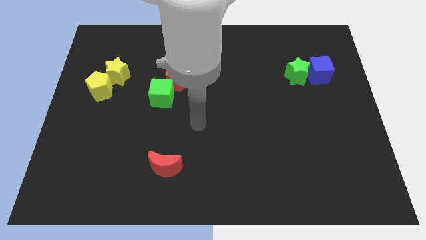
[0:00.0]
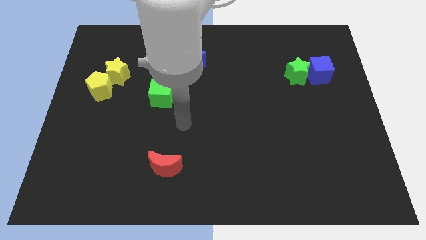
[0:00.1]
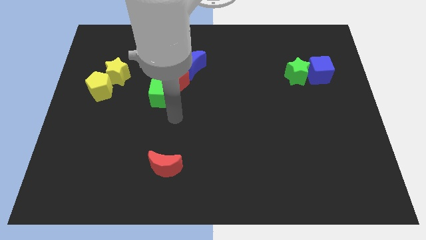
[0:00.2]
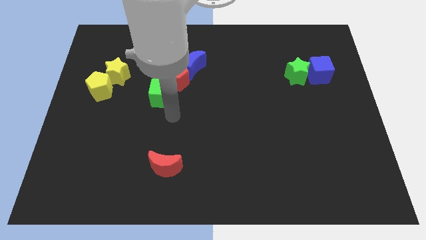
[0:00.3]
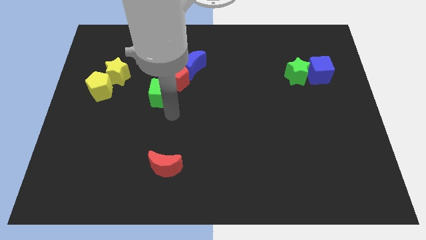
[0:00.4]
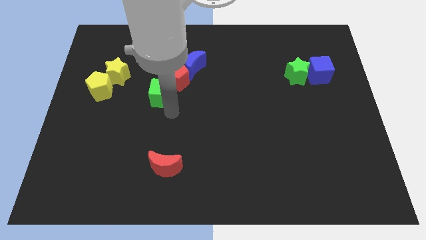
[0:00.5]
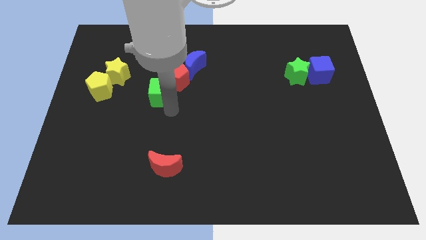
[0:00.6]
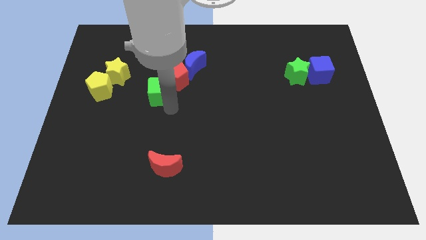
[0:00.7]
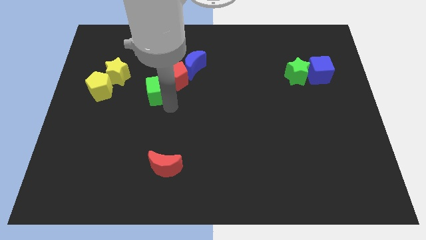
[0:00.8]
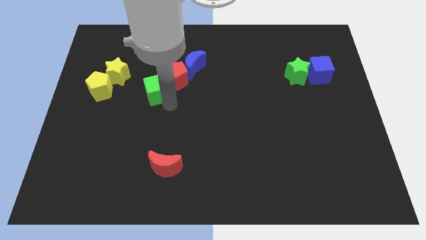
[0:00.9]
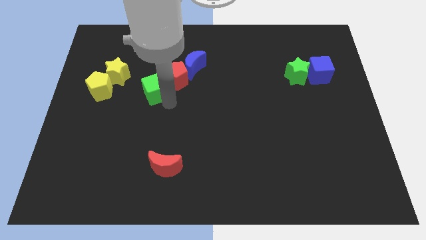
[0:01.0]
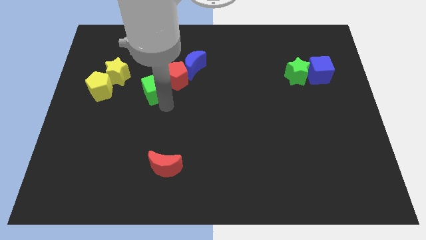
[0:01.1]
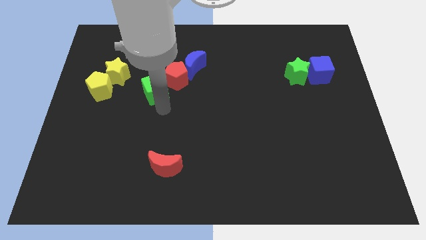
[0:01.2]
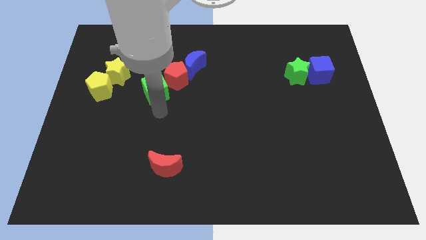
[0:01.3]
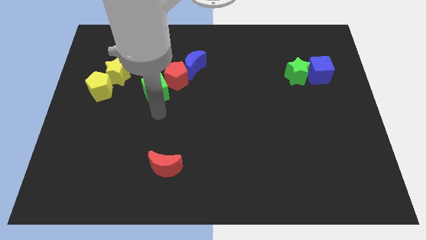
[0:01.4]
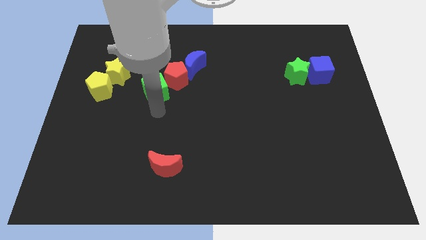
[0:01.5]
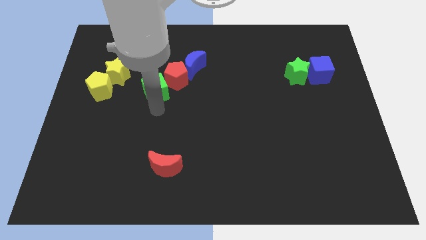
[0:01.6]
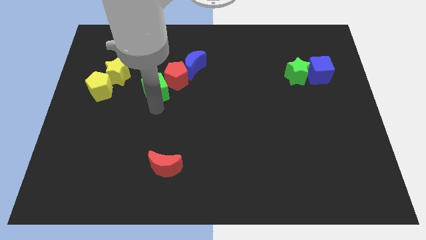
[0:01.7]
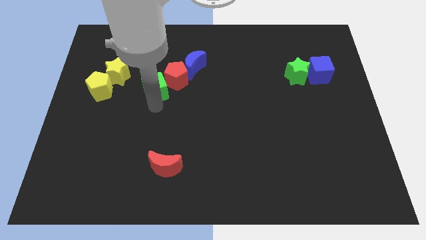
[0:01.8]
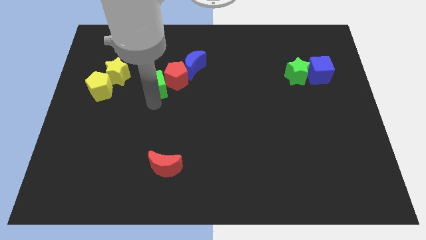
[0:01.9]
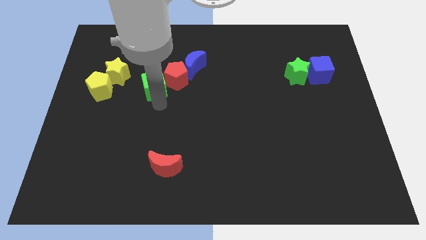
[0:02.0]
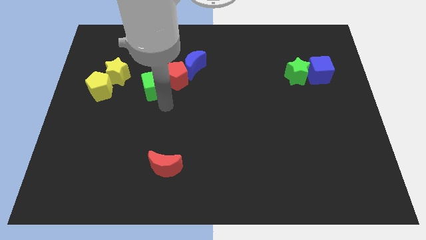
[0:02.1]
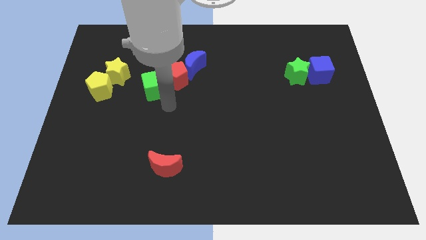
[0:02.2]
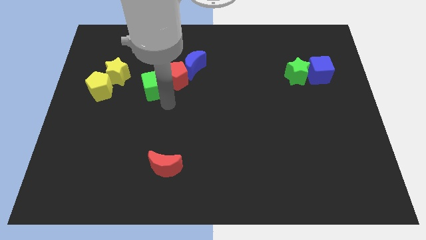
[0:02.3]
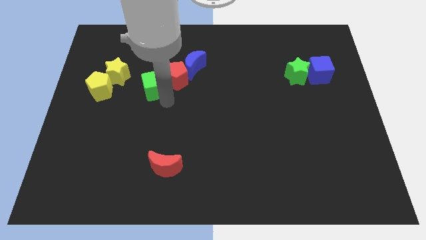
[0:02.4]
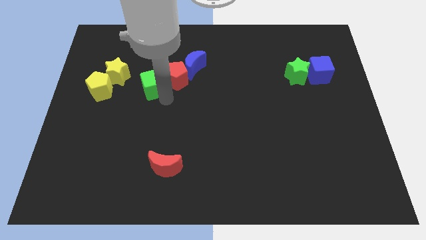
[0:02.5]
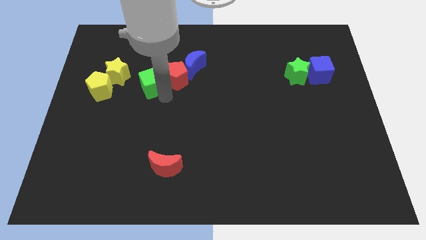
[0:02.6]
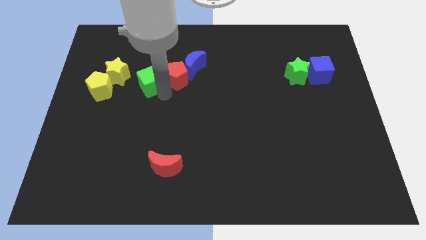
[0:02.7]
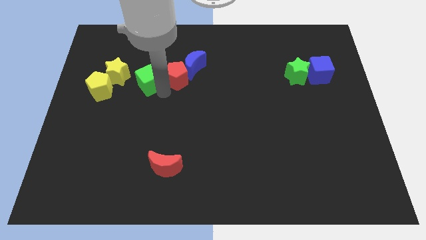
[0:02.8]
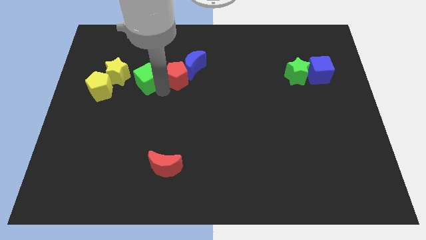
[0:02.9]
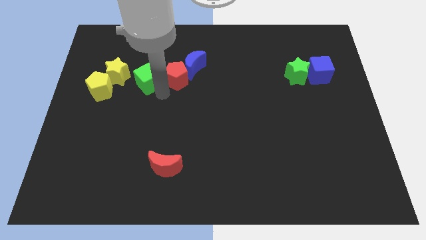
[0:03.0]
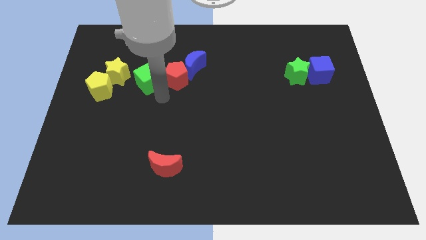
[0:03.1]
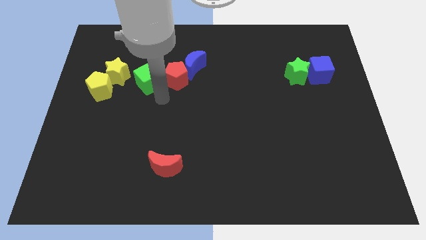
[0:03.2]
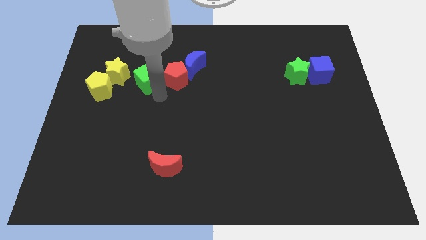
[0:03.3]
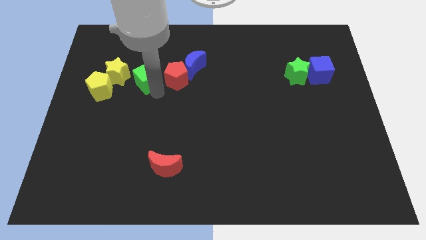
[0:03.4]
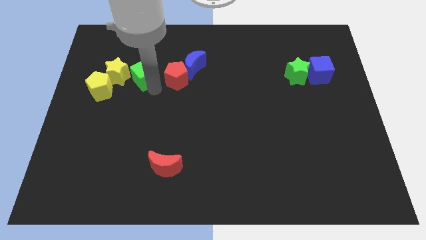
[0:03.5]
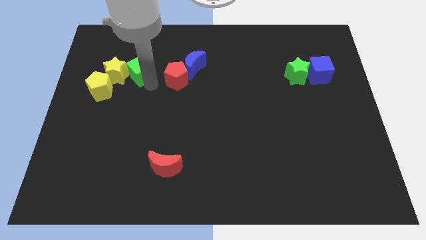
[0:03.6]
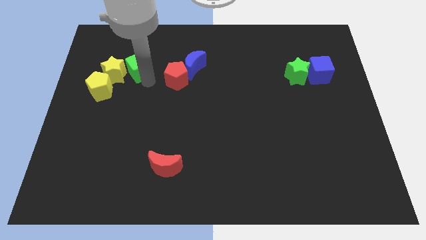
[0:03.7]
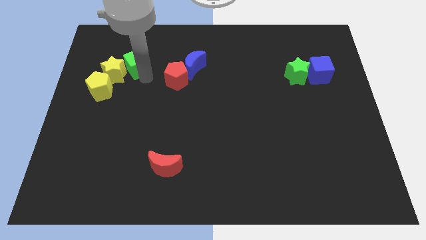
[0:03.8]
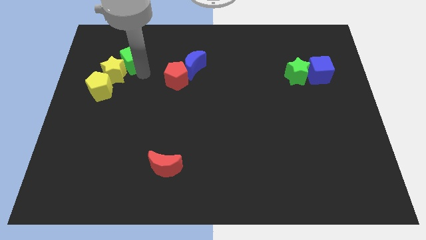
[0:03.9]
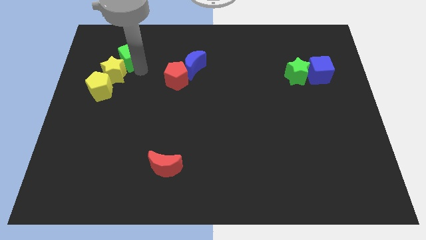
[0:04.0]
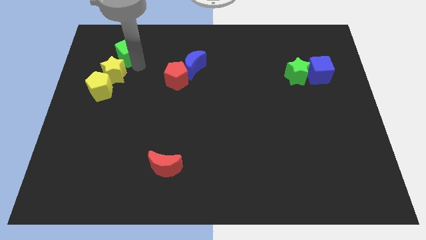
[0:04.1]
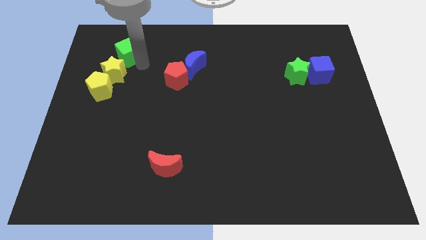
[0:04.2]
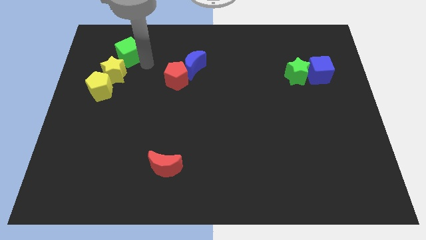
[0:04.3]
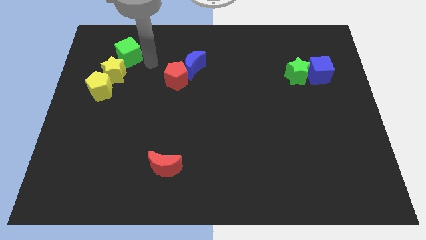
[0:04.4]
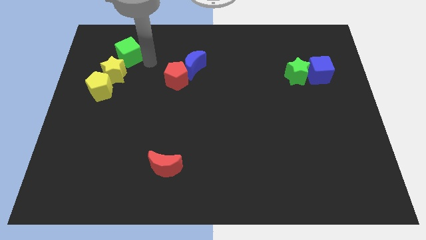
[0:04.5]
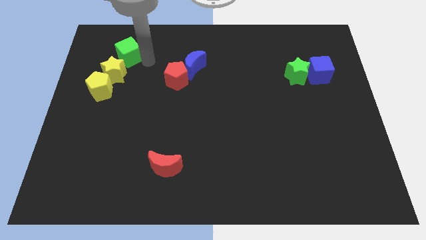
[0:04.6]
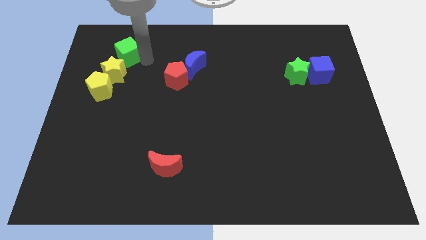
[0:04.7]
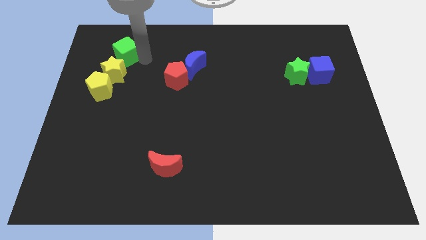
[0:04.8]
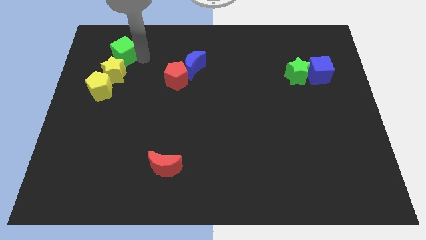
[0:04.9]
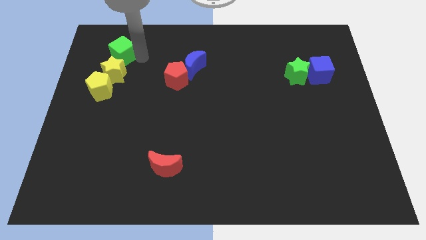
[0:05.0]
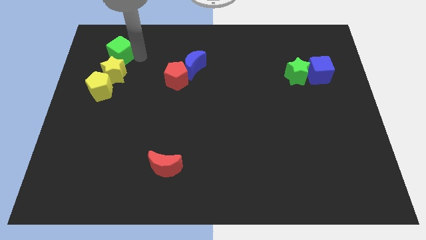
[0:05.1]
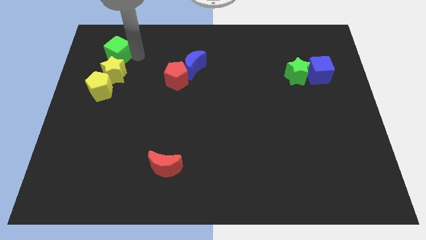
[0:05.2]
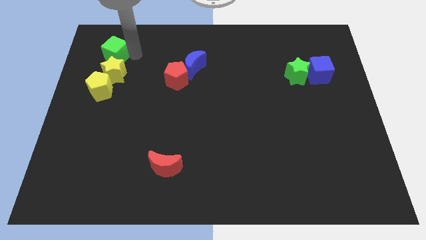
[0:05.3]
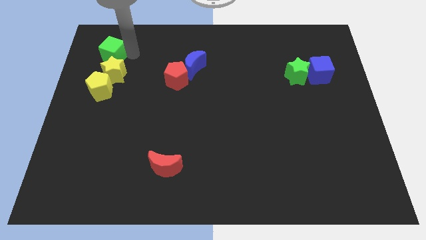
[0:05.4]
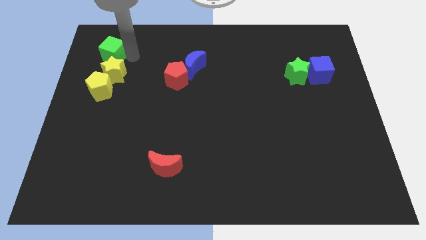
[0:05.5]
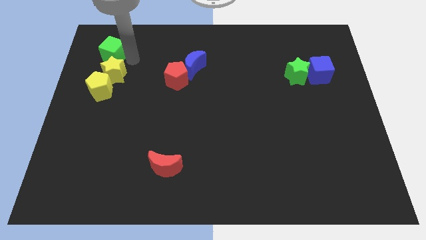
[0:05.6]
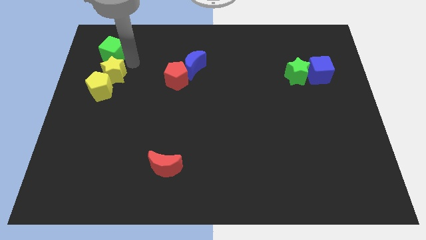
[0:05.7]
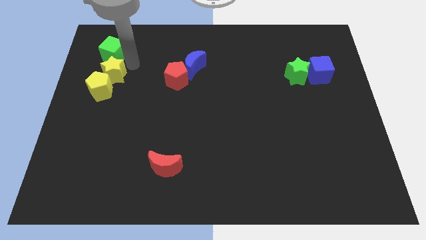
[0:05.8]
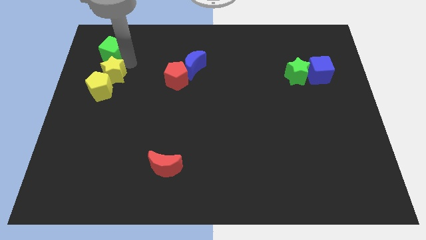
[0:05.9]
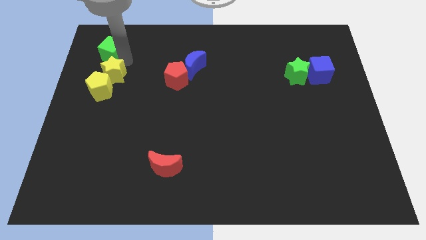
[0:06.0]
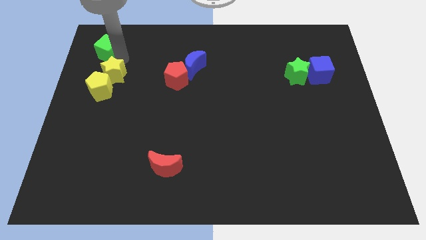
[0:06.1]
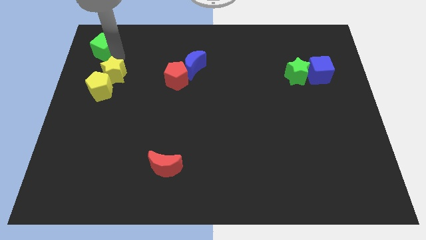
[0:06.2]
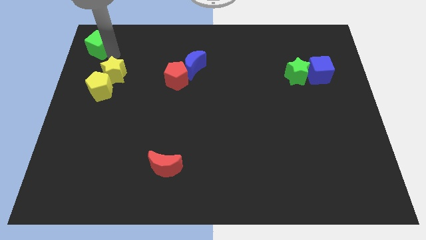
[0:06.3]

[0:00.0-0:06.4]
push the green cube to the top left corner
